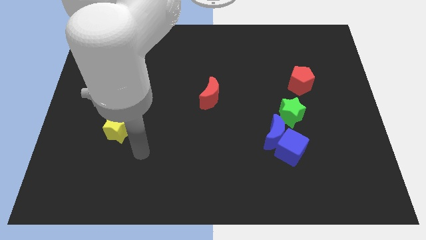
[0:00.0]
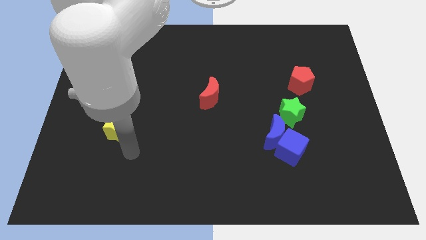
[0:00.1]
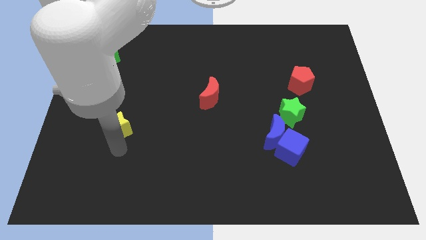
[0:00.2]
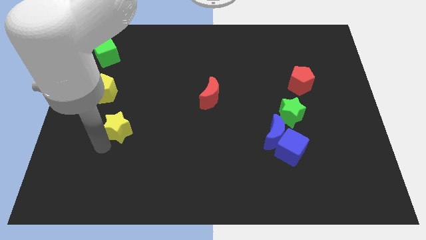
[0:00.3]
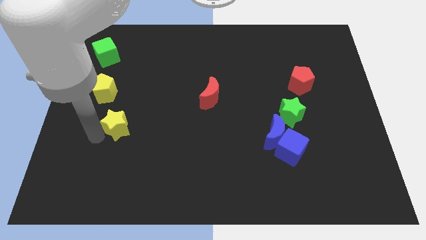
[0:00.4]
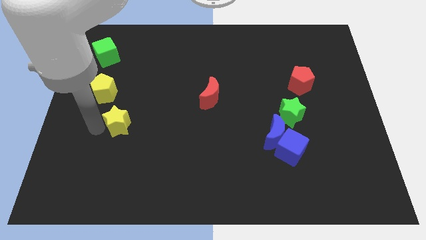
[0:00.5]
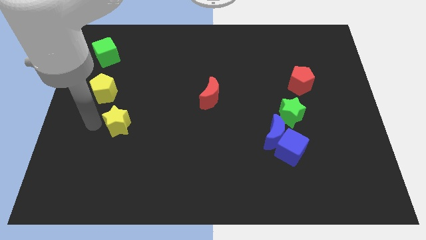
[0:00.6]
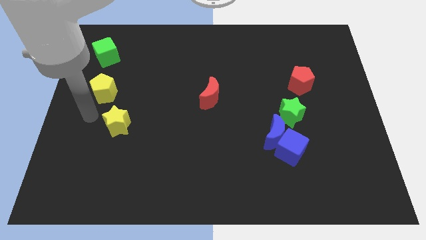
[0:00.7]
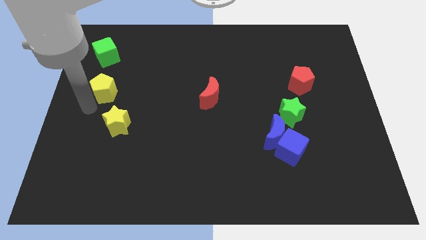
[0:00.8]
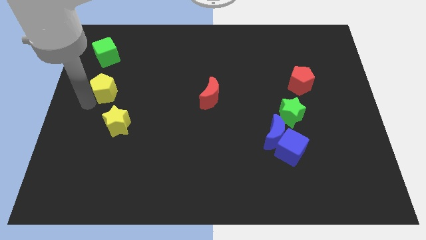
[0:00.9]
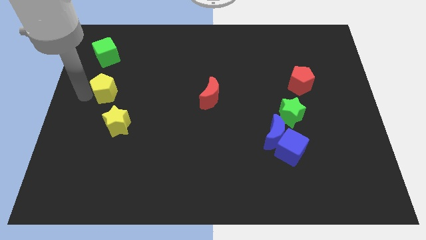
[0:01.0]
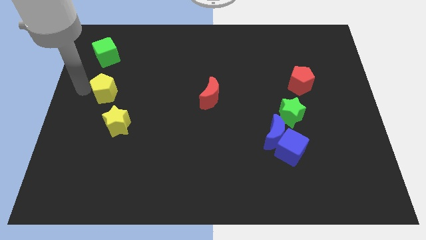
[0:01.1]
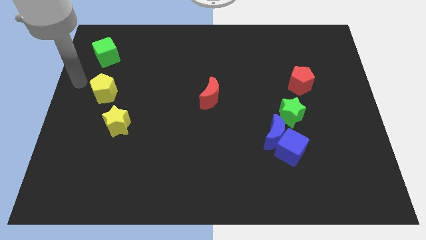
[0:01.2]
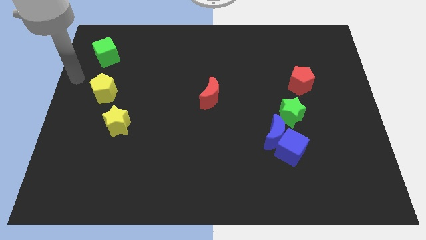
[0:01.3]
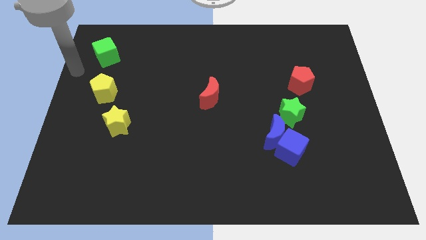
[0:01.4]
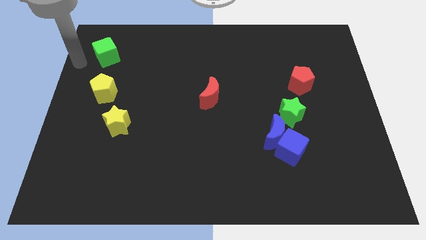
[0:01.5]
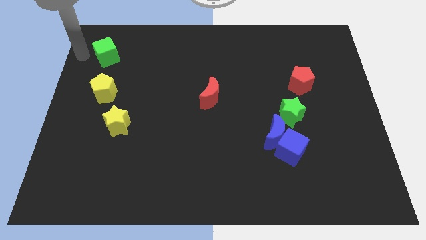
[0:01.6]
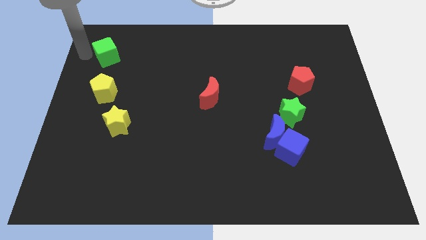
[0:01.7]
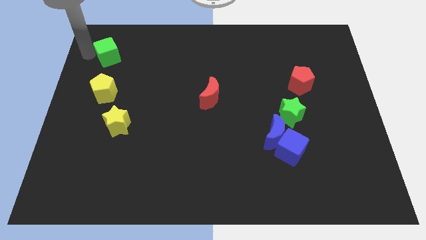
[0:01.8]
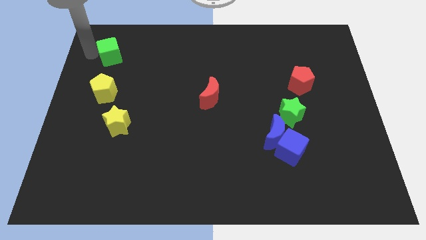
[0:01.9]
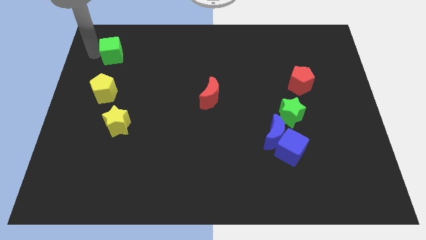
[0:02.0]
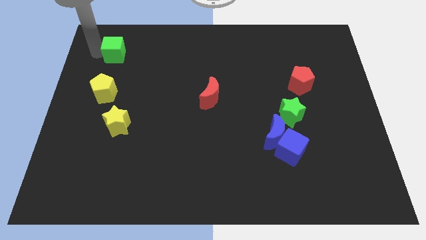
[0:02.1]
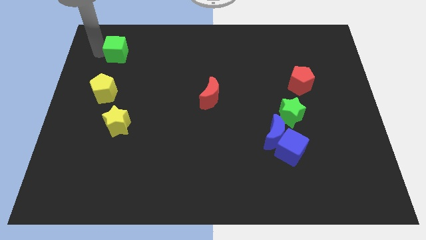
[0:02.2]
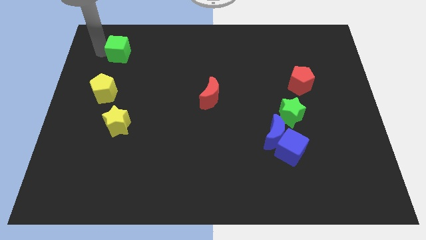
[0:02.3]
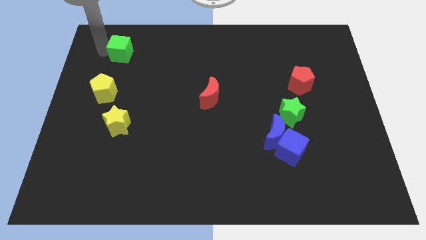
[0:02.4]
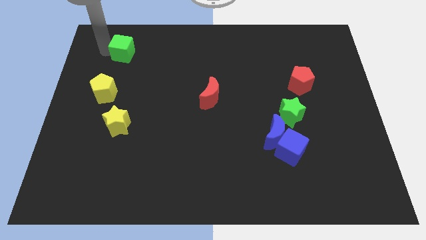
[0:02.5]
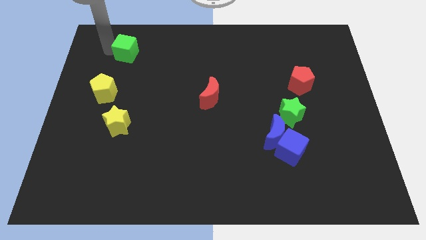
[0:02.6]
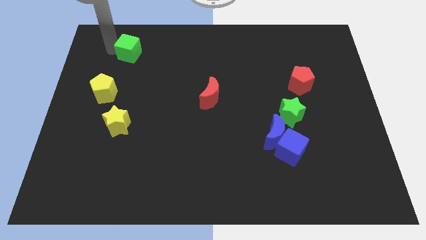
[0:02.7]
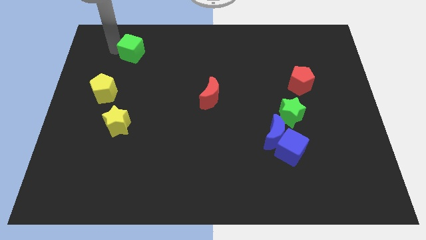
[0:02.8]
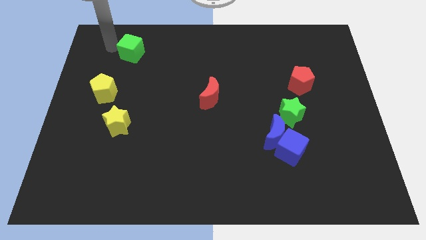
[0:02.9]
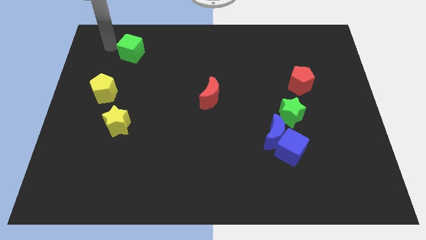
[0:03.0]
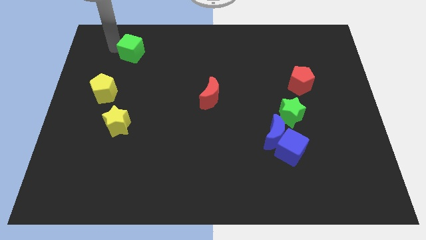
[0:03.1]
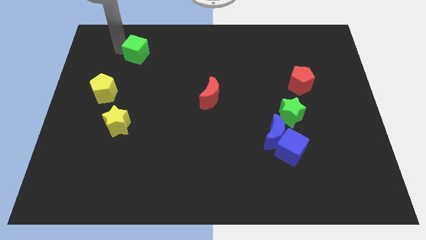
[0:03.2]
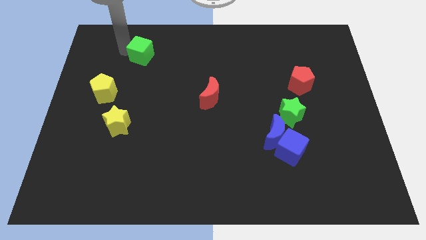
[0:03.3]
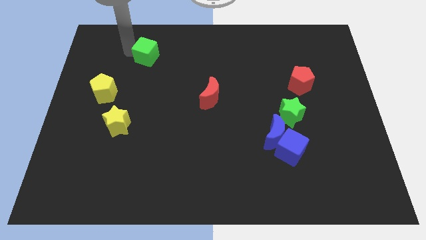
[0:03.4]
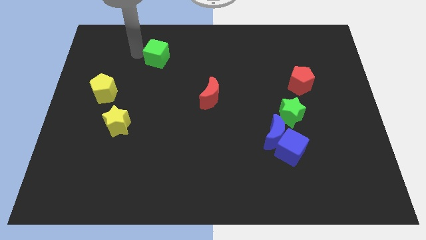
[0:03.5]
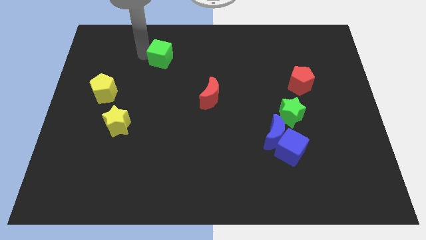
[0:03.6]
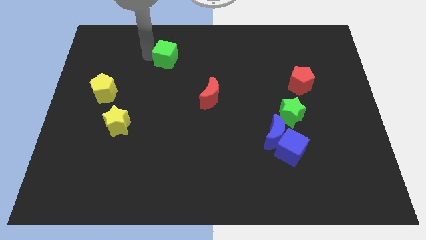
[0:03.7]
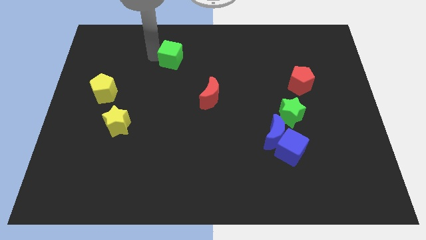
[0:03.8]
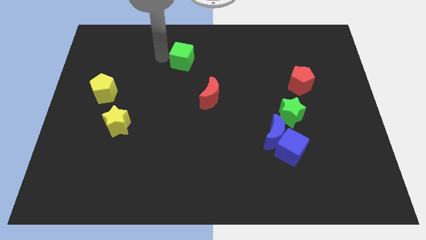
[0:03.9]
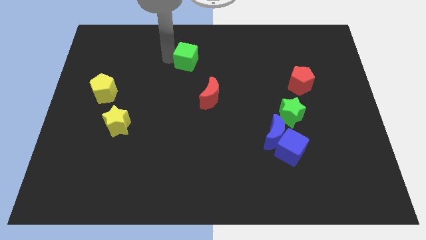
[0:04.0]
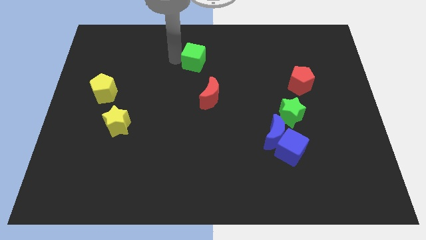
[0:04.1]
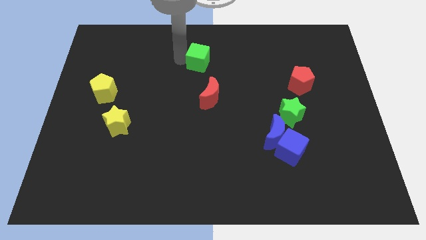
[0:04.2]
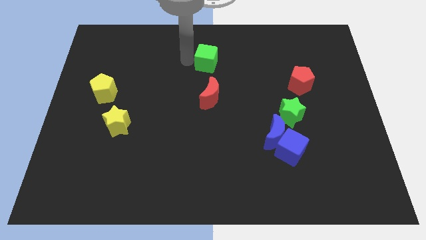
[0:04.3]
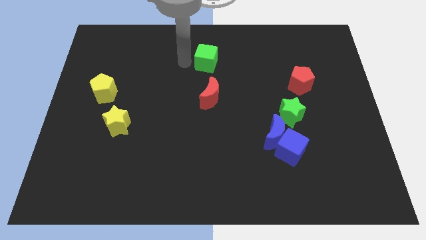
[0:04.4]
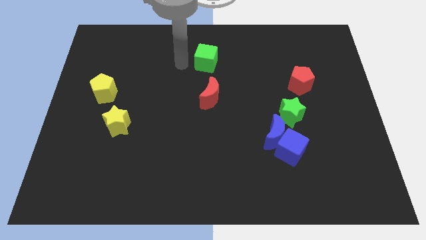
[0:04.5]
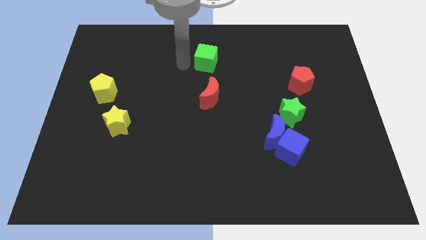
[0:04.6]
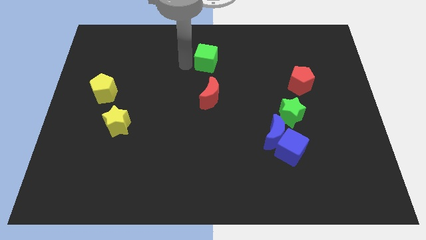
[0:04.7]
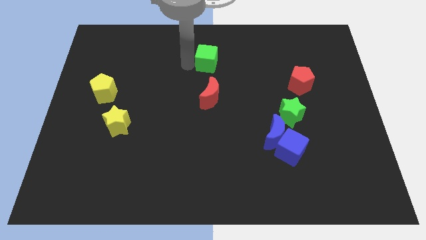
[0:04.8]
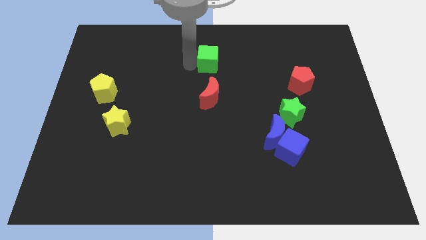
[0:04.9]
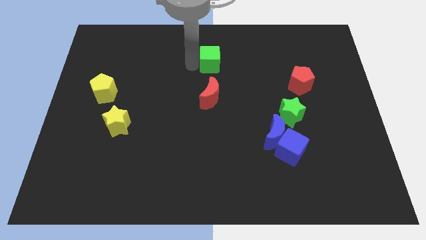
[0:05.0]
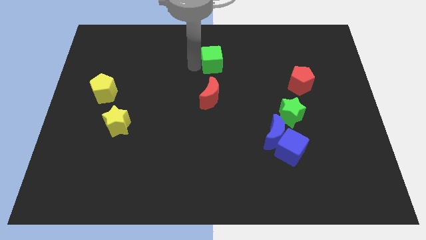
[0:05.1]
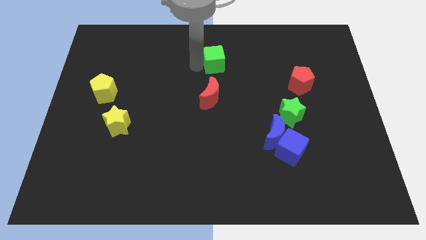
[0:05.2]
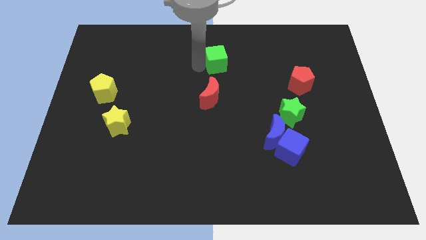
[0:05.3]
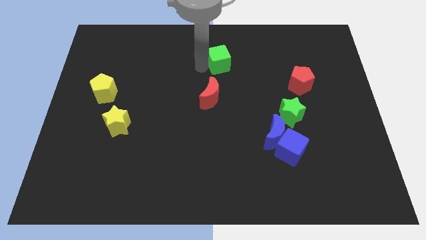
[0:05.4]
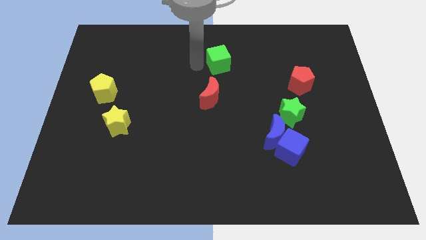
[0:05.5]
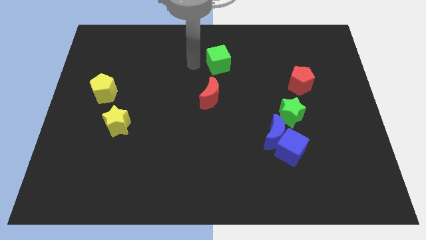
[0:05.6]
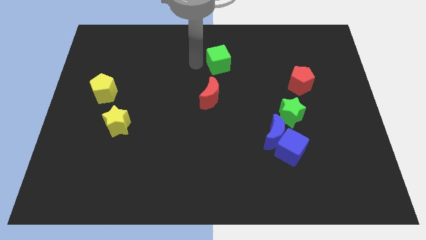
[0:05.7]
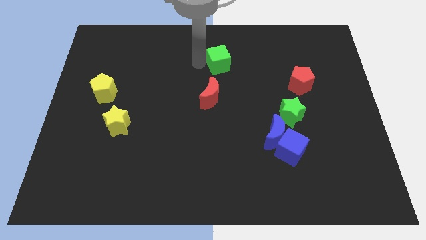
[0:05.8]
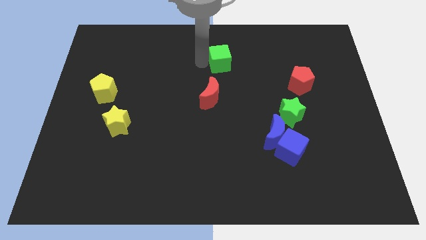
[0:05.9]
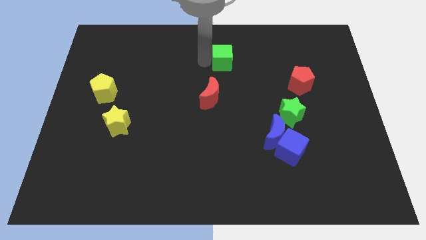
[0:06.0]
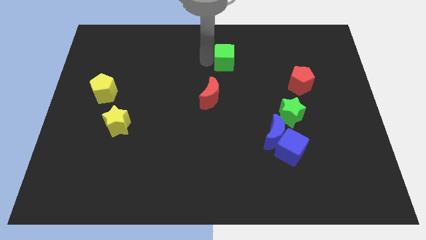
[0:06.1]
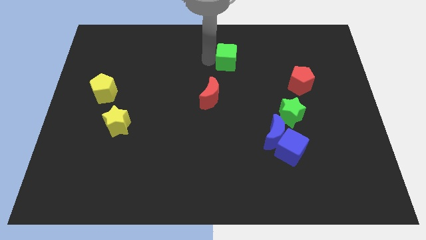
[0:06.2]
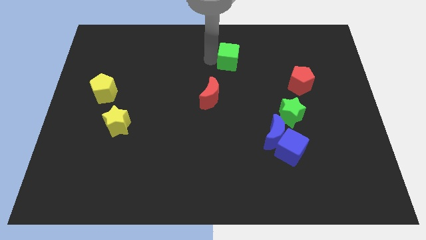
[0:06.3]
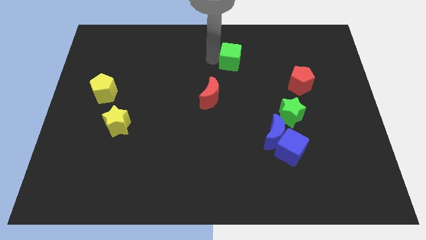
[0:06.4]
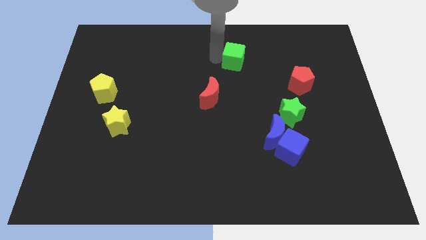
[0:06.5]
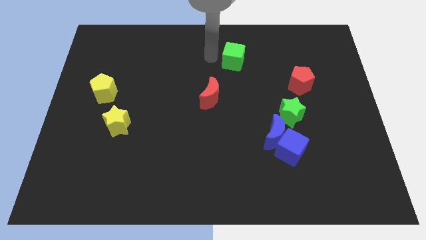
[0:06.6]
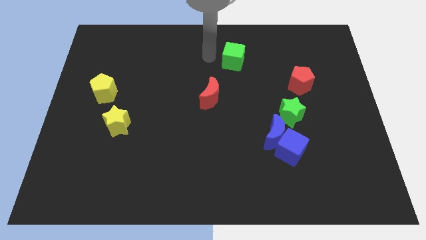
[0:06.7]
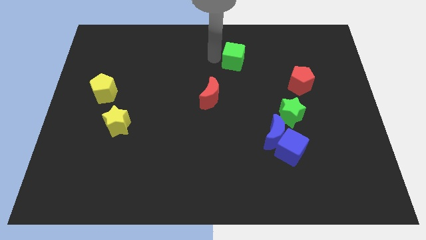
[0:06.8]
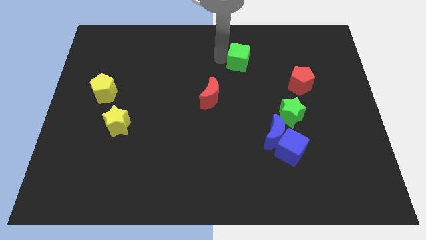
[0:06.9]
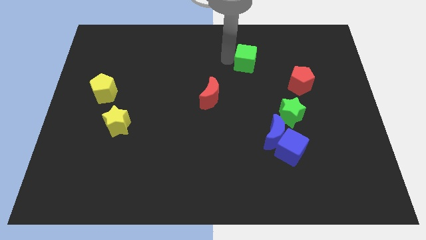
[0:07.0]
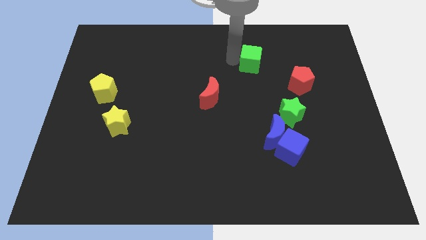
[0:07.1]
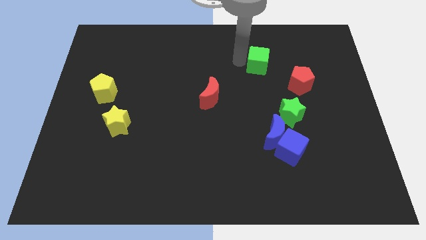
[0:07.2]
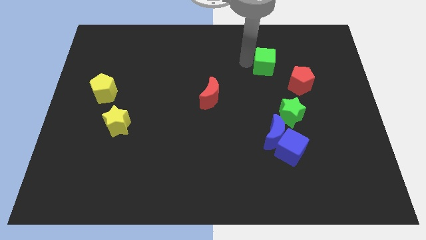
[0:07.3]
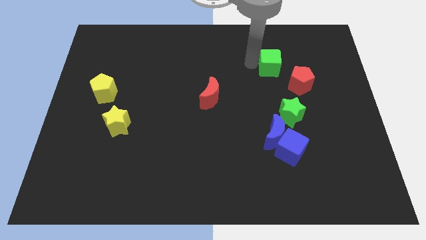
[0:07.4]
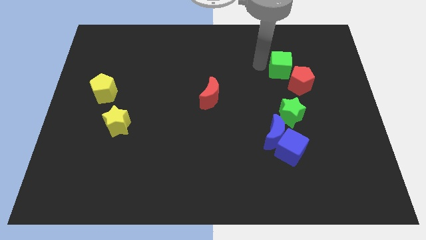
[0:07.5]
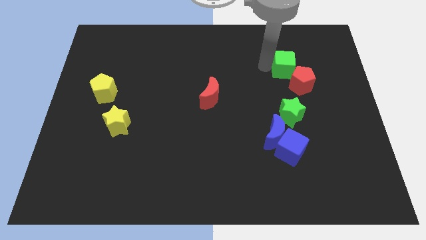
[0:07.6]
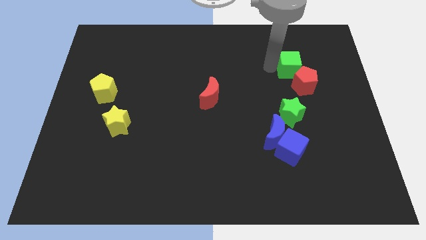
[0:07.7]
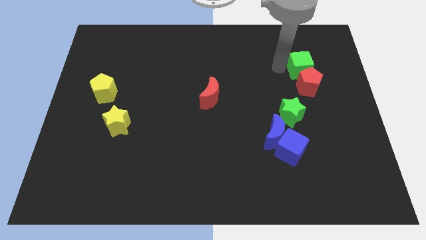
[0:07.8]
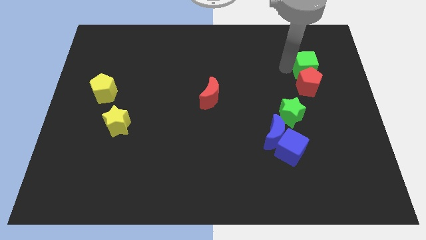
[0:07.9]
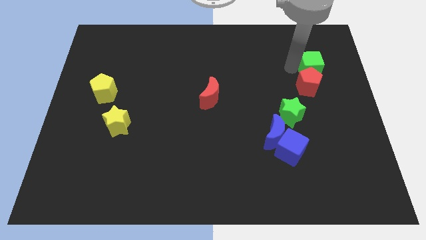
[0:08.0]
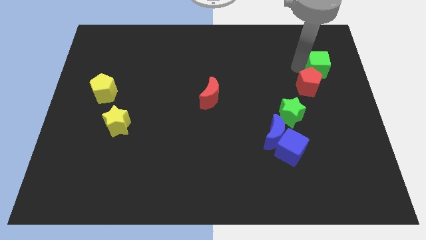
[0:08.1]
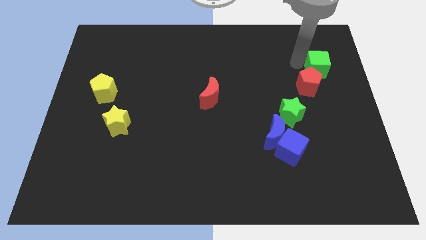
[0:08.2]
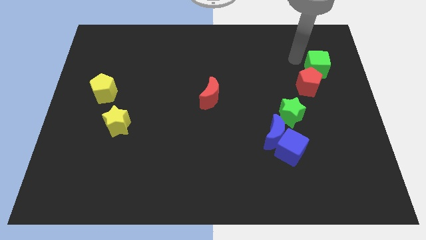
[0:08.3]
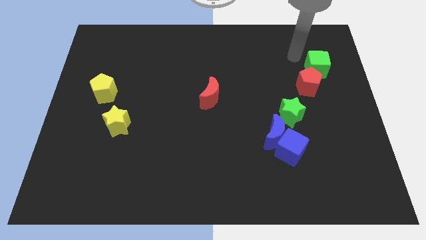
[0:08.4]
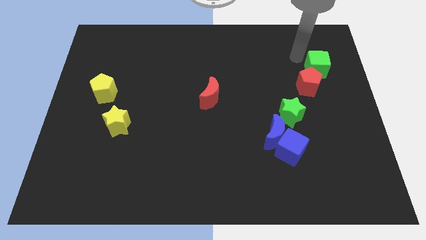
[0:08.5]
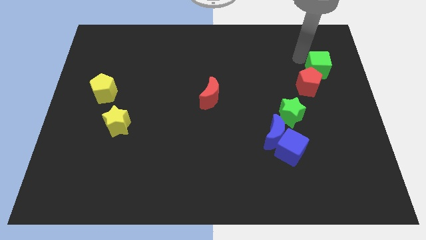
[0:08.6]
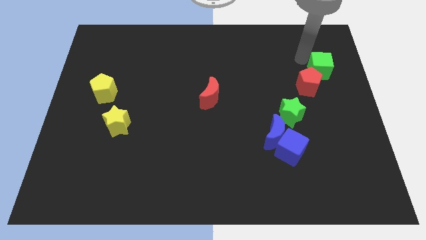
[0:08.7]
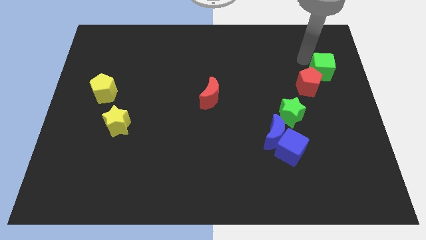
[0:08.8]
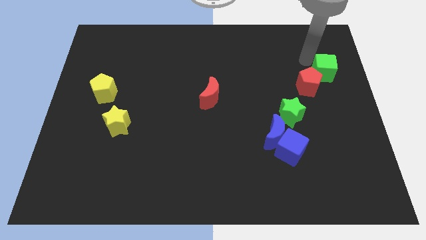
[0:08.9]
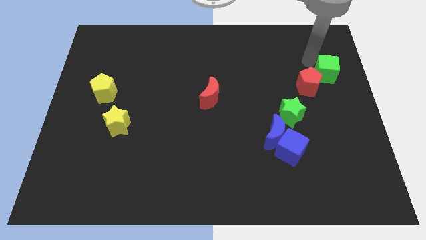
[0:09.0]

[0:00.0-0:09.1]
put the green cube to the right side
